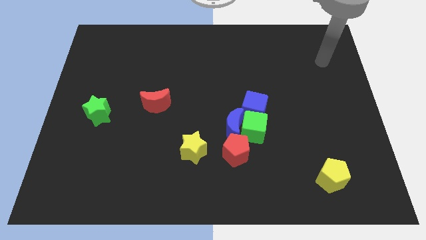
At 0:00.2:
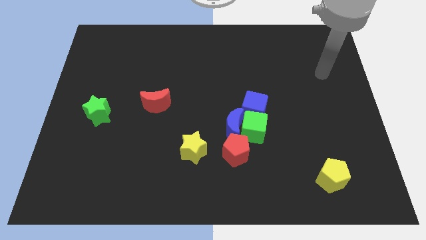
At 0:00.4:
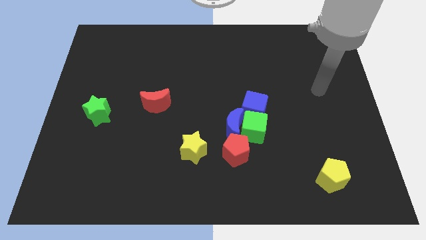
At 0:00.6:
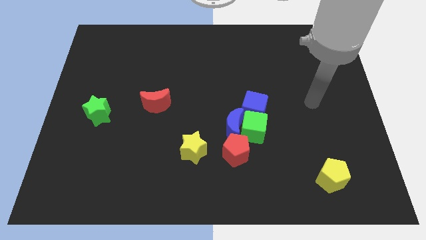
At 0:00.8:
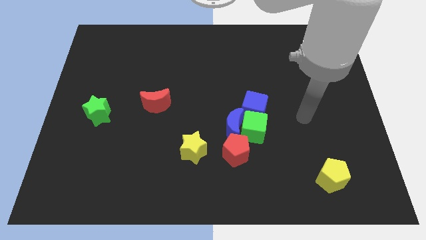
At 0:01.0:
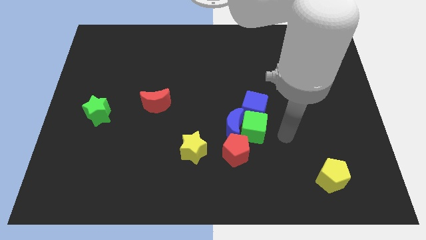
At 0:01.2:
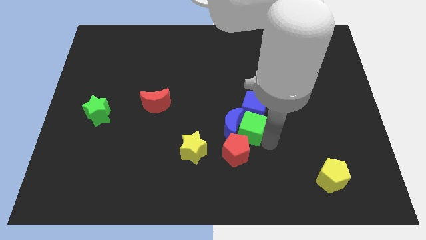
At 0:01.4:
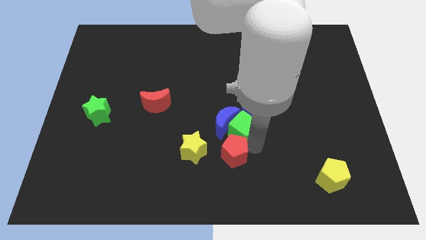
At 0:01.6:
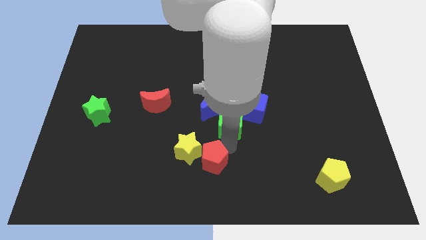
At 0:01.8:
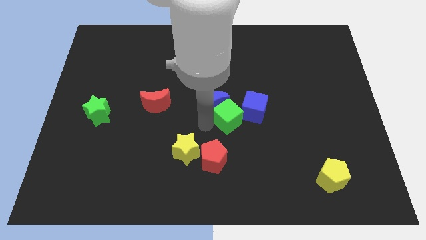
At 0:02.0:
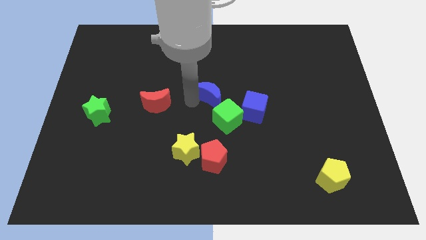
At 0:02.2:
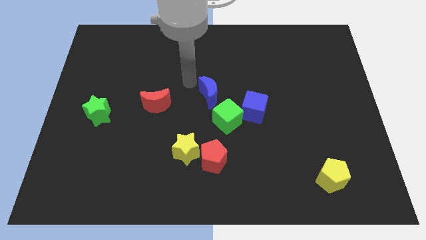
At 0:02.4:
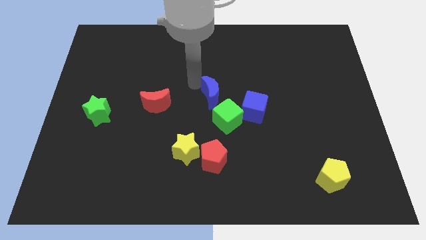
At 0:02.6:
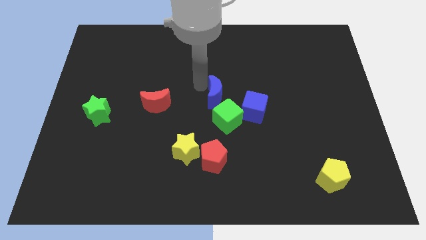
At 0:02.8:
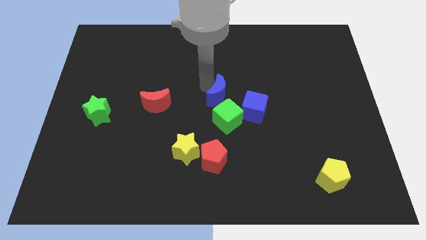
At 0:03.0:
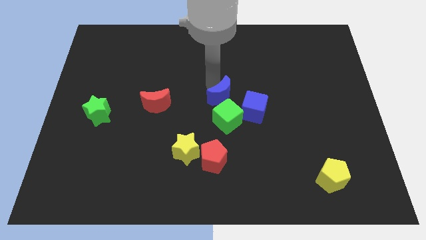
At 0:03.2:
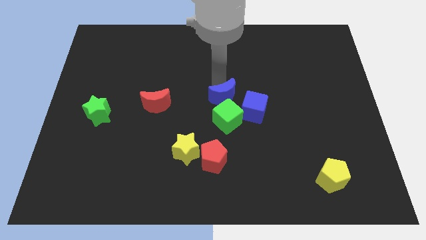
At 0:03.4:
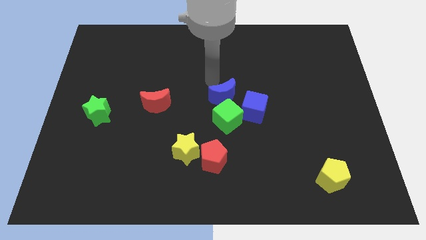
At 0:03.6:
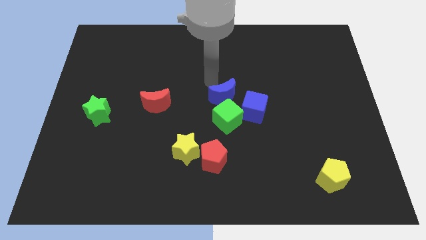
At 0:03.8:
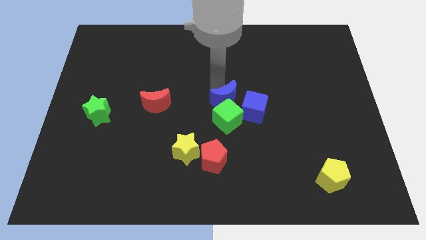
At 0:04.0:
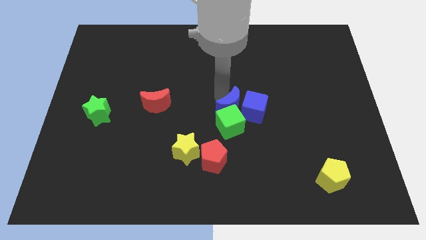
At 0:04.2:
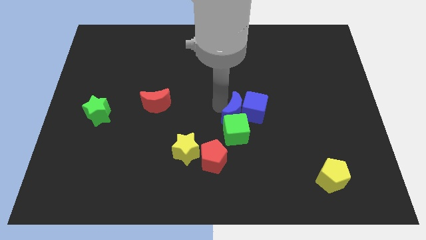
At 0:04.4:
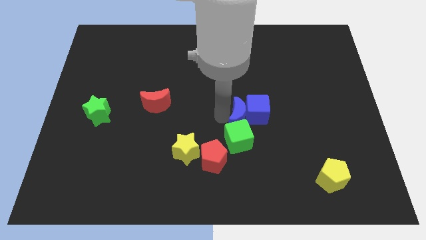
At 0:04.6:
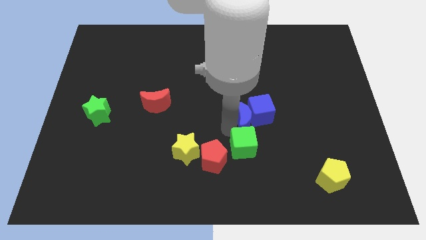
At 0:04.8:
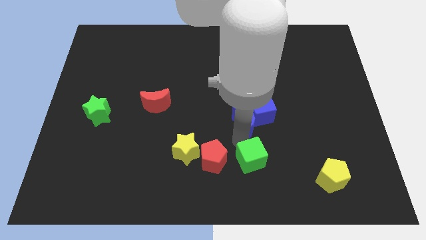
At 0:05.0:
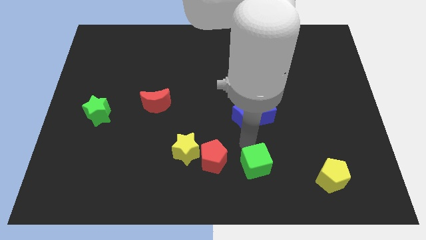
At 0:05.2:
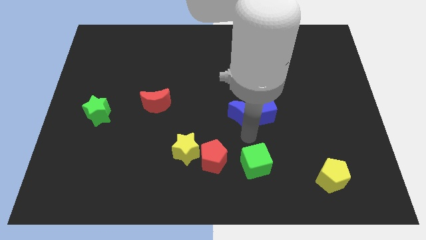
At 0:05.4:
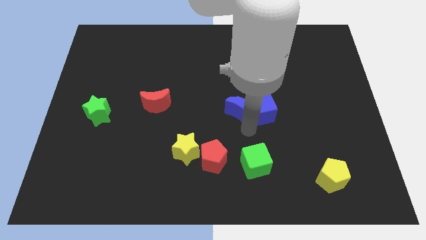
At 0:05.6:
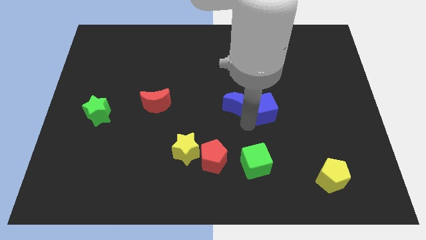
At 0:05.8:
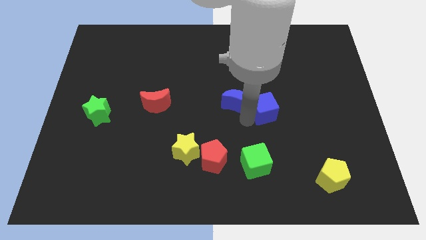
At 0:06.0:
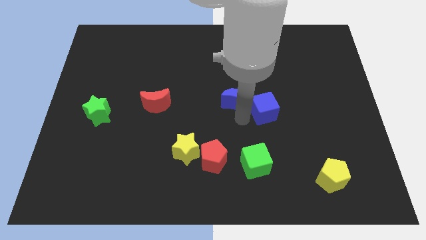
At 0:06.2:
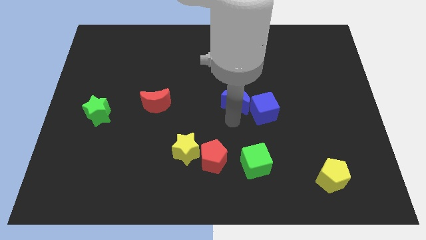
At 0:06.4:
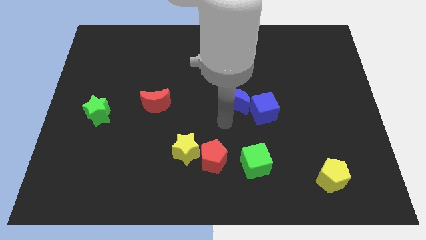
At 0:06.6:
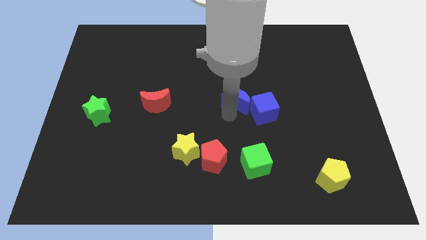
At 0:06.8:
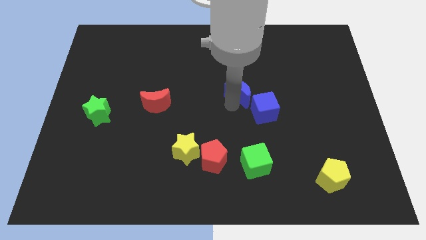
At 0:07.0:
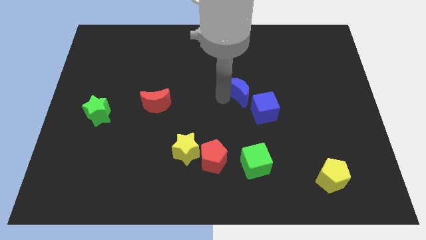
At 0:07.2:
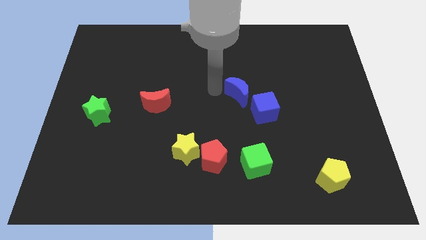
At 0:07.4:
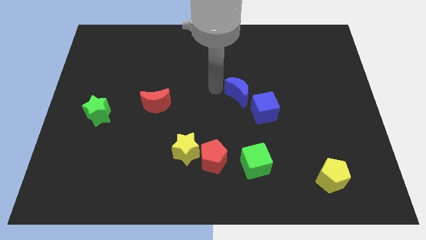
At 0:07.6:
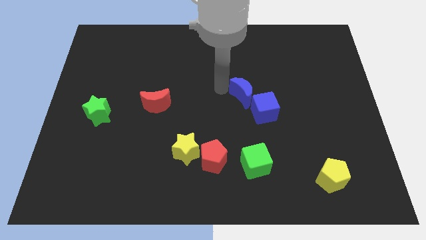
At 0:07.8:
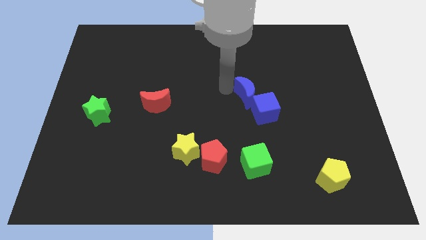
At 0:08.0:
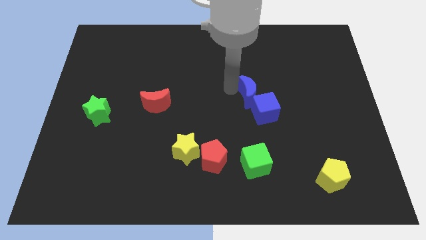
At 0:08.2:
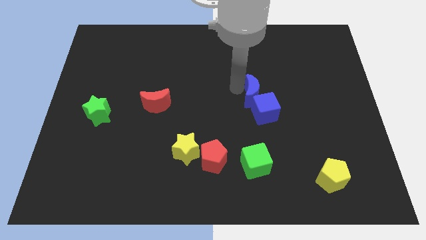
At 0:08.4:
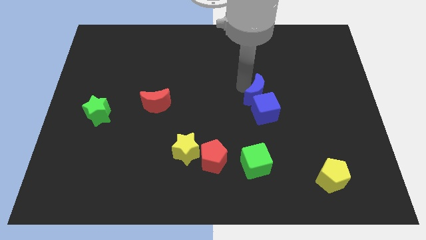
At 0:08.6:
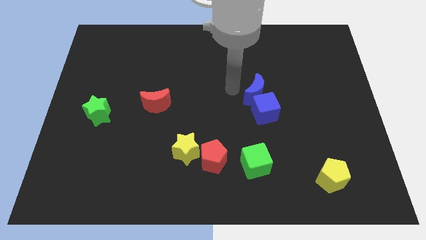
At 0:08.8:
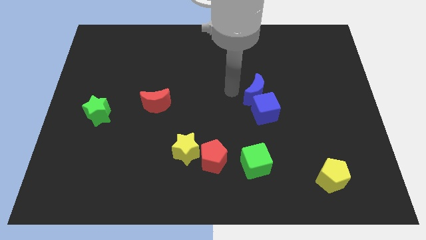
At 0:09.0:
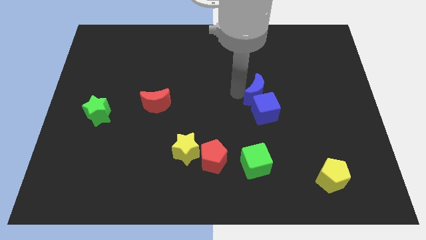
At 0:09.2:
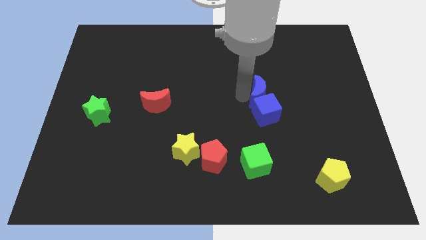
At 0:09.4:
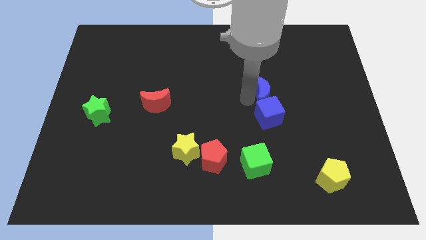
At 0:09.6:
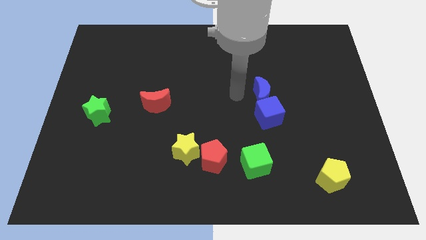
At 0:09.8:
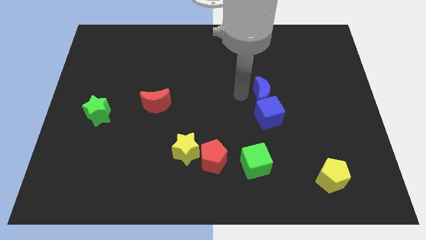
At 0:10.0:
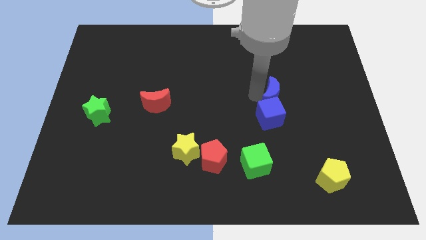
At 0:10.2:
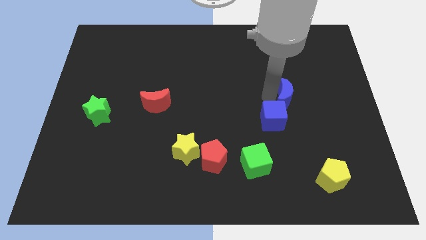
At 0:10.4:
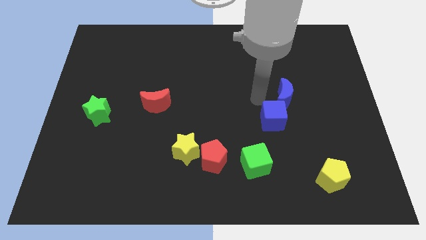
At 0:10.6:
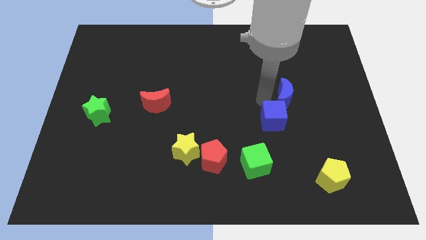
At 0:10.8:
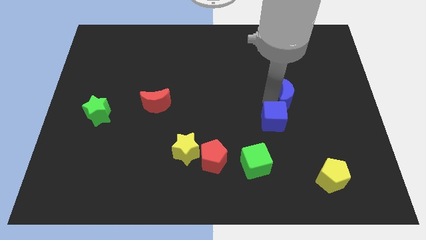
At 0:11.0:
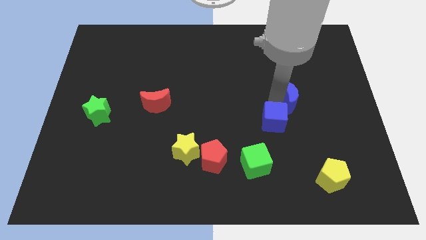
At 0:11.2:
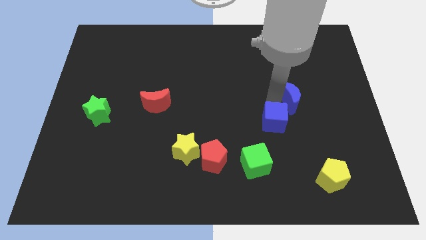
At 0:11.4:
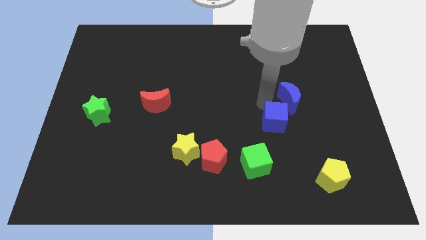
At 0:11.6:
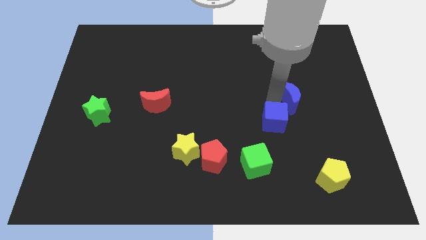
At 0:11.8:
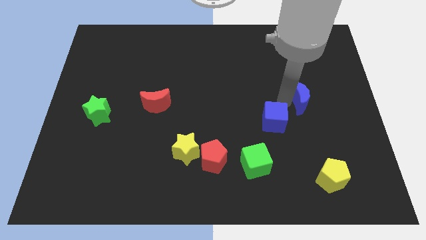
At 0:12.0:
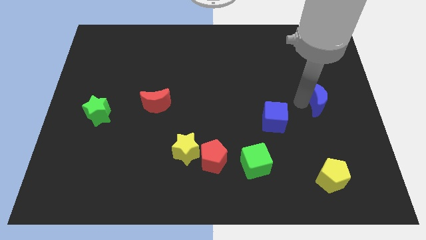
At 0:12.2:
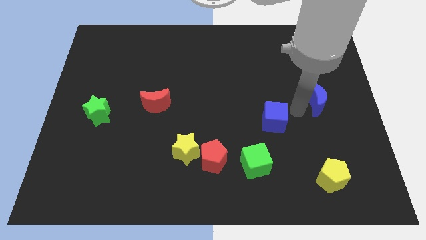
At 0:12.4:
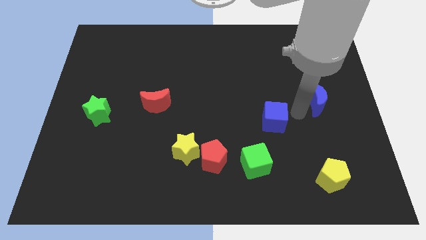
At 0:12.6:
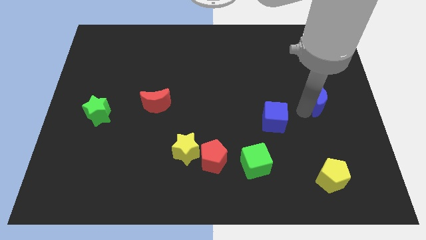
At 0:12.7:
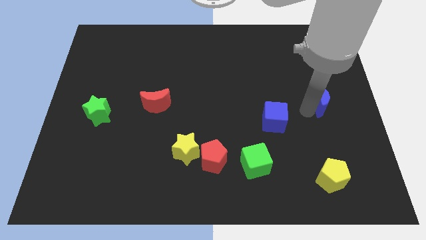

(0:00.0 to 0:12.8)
put the blue moon to the right side of the board
